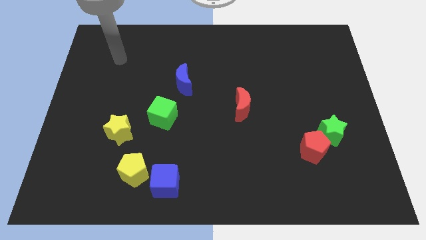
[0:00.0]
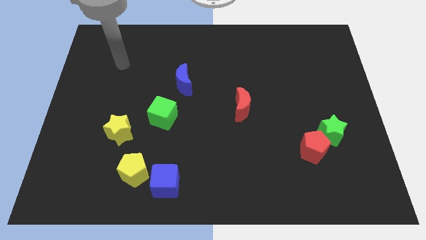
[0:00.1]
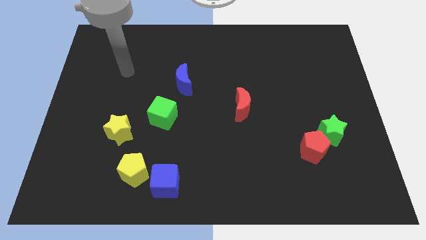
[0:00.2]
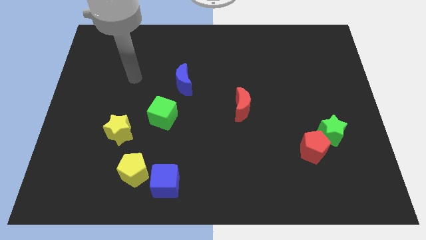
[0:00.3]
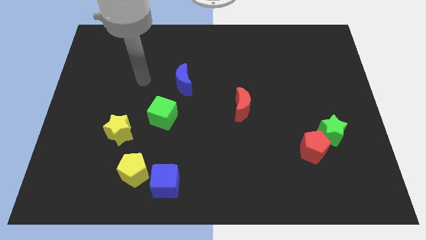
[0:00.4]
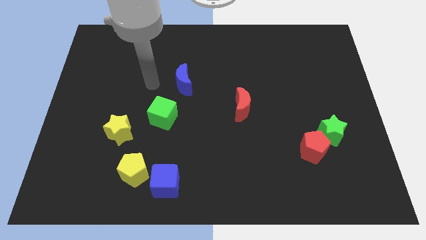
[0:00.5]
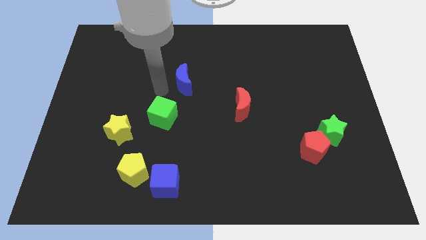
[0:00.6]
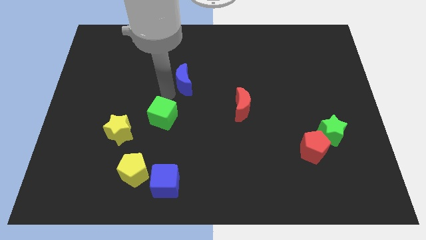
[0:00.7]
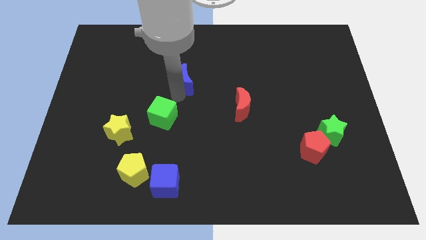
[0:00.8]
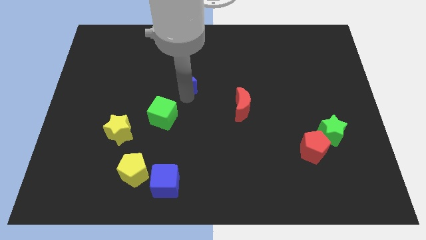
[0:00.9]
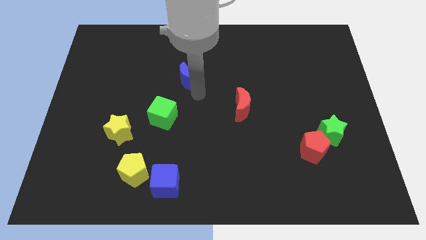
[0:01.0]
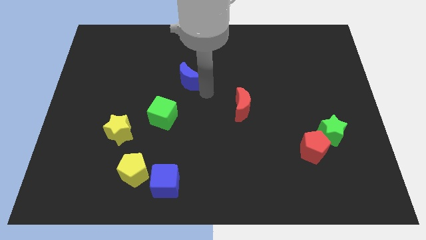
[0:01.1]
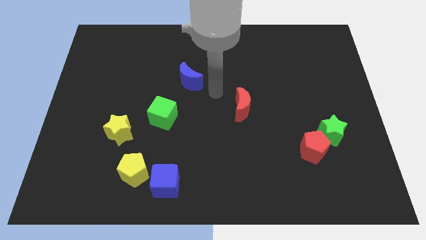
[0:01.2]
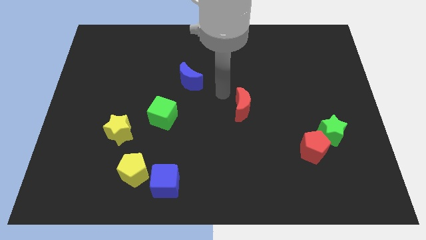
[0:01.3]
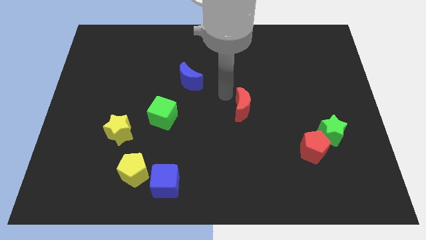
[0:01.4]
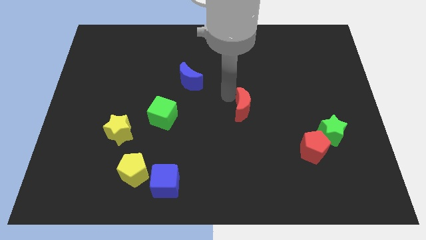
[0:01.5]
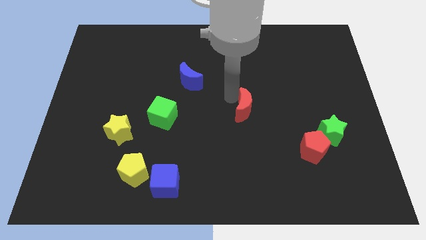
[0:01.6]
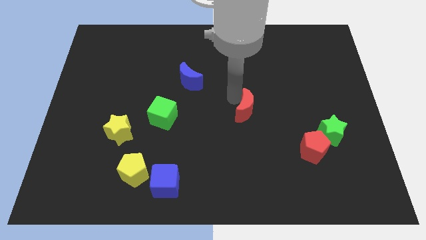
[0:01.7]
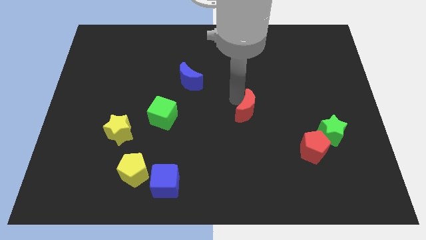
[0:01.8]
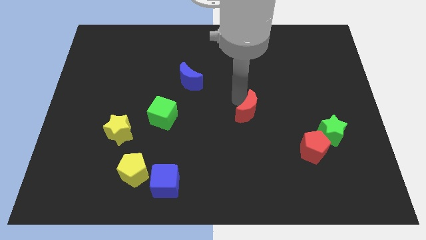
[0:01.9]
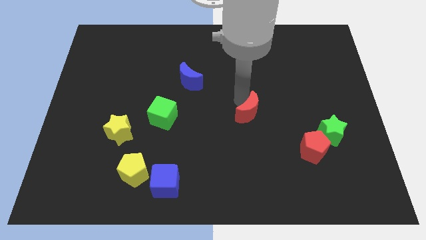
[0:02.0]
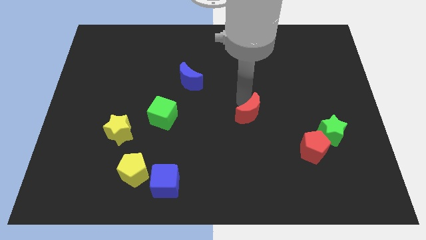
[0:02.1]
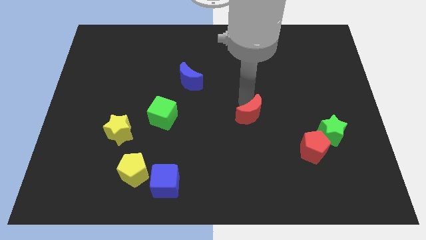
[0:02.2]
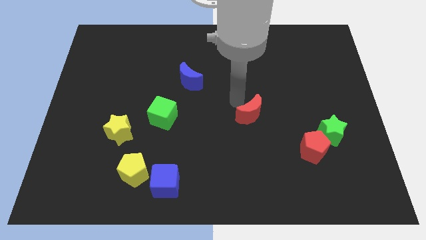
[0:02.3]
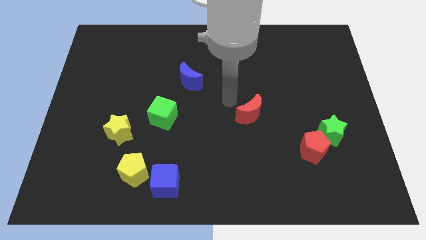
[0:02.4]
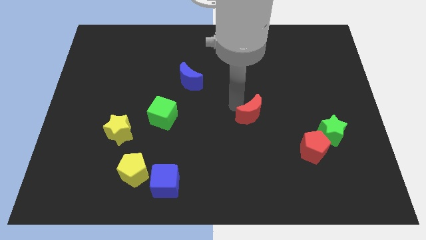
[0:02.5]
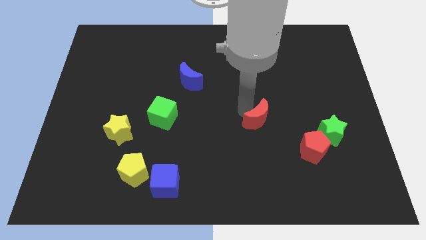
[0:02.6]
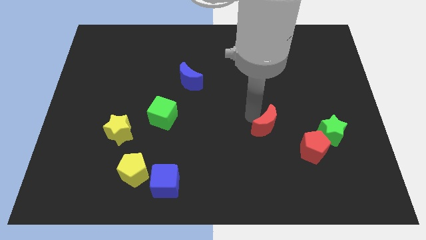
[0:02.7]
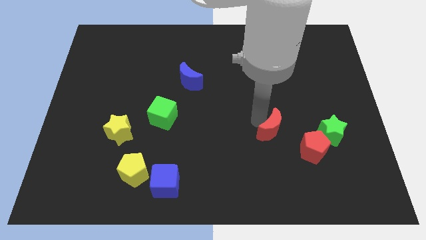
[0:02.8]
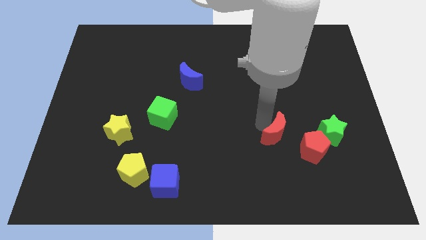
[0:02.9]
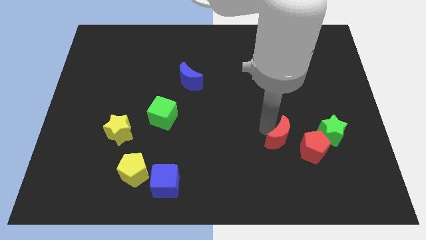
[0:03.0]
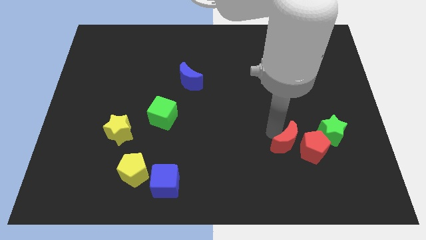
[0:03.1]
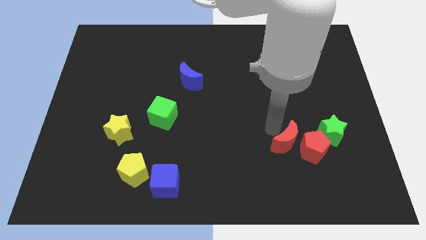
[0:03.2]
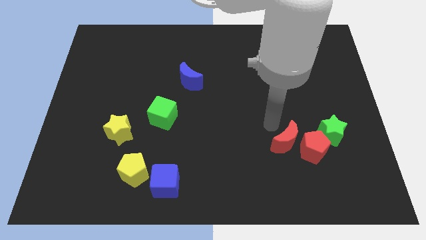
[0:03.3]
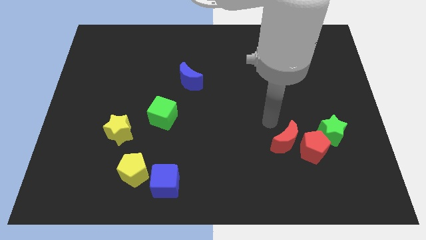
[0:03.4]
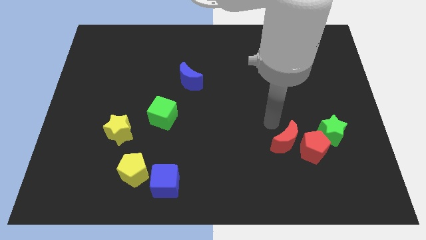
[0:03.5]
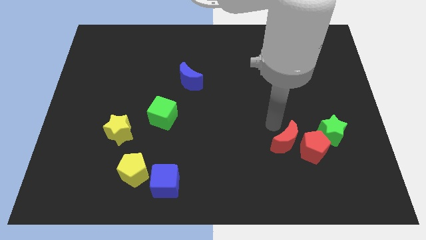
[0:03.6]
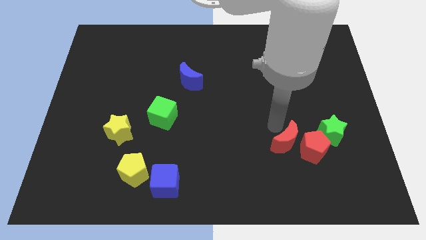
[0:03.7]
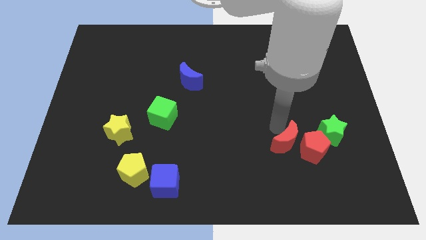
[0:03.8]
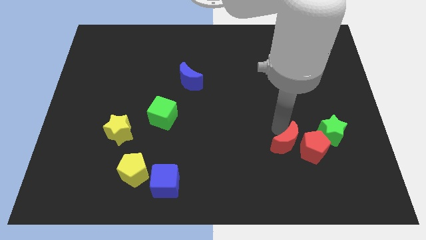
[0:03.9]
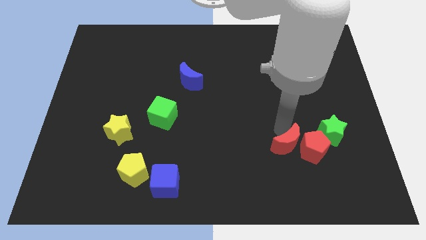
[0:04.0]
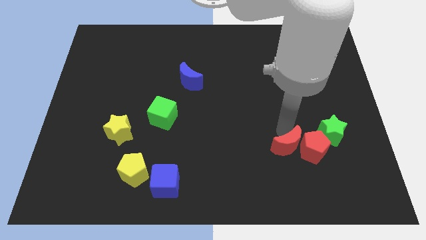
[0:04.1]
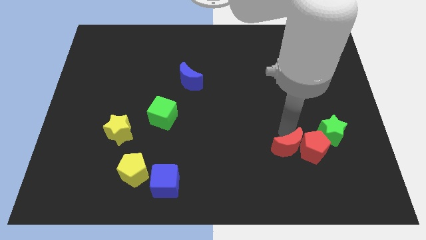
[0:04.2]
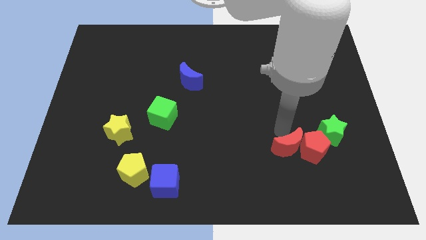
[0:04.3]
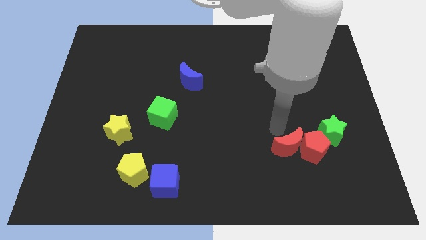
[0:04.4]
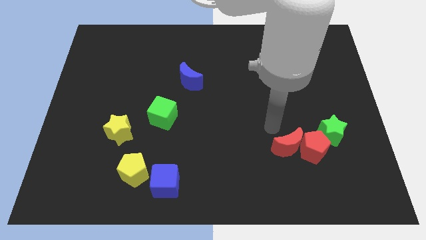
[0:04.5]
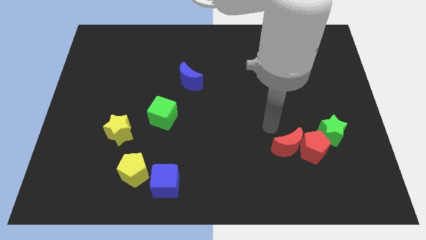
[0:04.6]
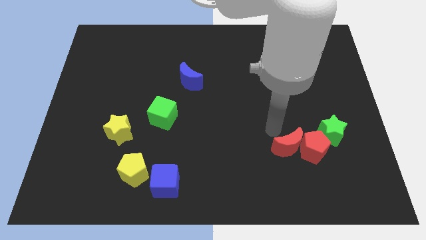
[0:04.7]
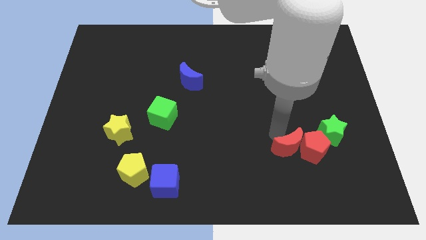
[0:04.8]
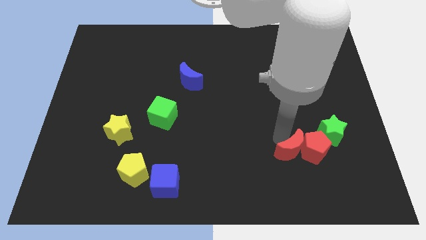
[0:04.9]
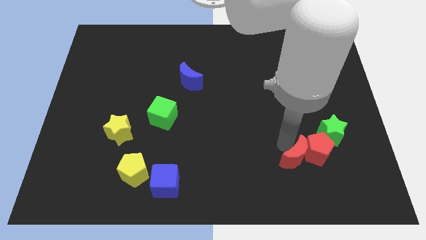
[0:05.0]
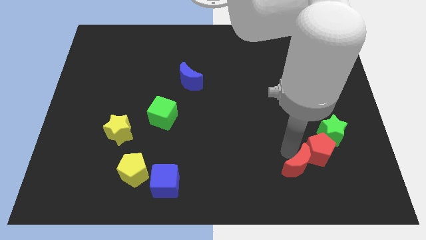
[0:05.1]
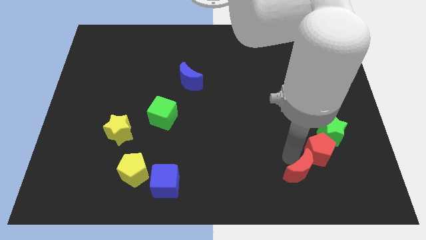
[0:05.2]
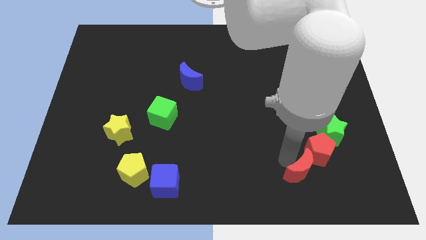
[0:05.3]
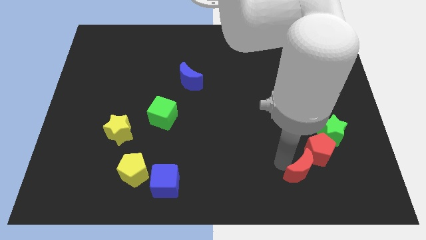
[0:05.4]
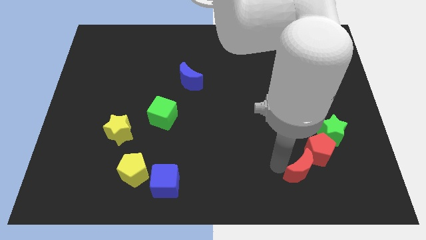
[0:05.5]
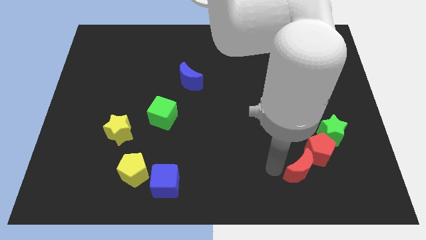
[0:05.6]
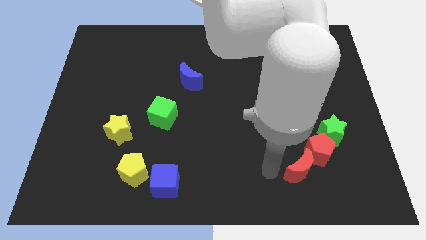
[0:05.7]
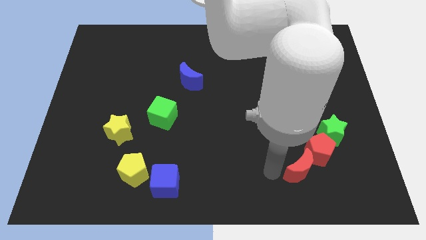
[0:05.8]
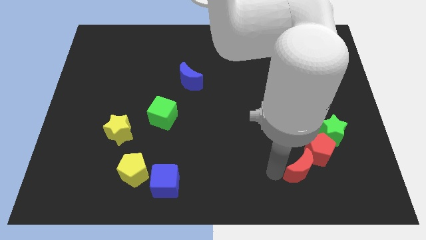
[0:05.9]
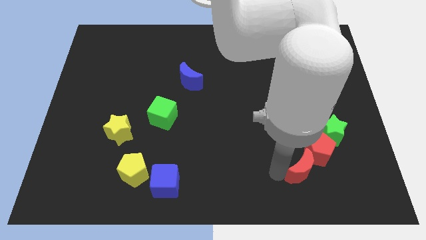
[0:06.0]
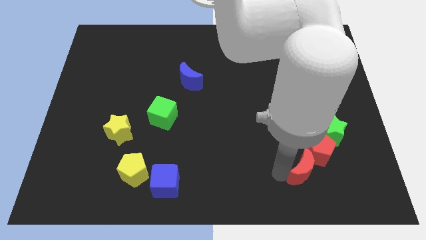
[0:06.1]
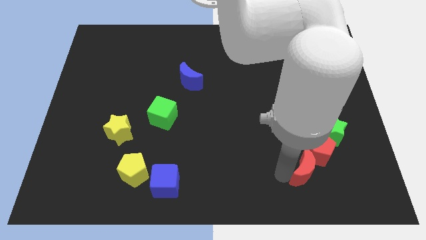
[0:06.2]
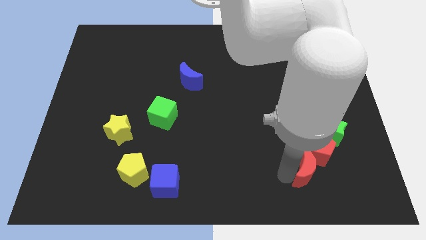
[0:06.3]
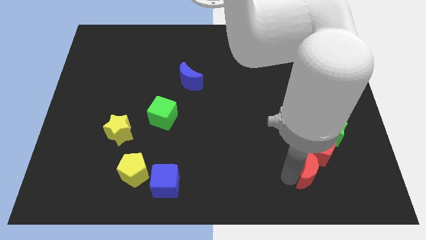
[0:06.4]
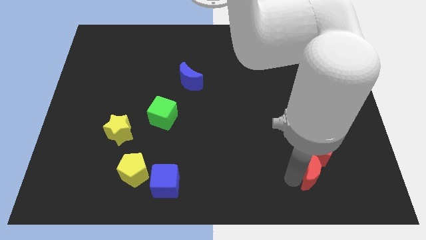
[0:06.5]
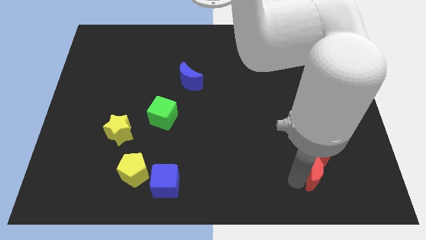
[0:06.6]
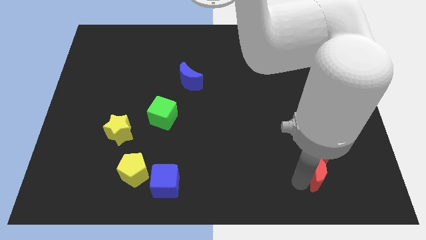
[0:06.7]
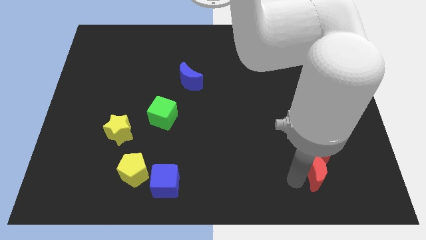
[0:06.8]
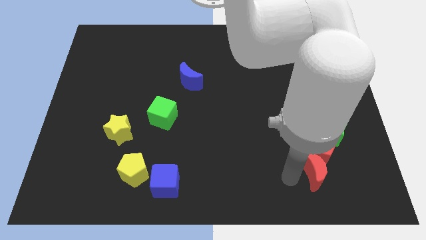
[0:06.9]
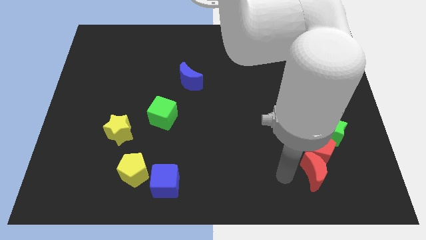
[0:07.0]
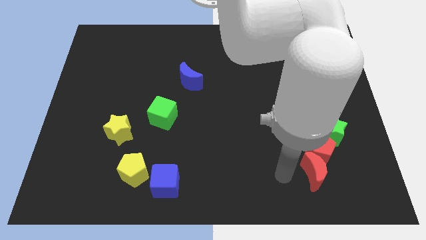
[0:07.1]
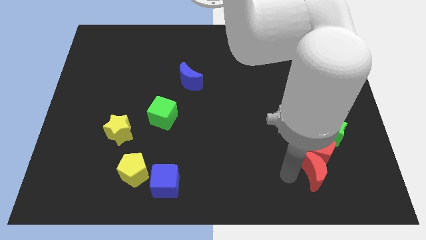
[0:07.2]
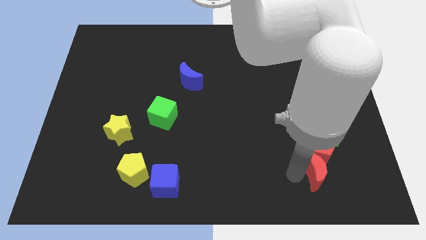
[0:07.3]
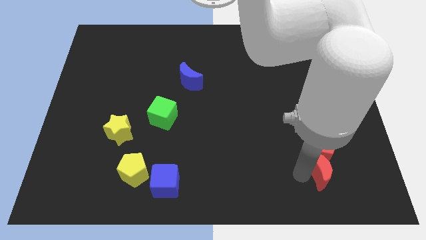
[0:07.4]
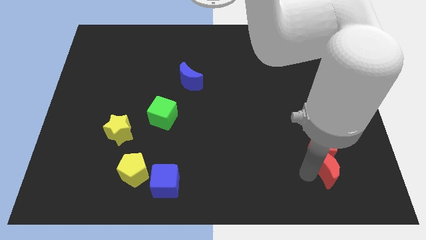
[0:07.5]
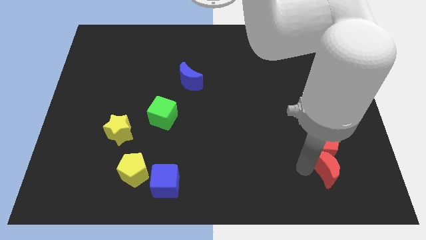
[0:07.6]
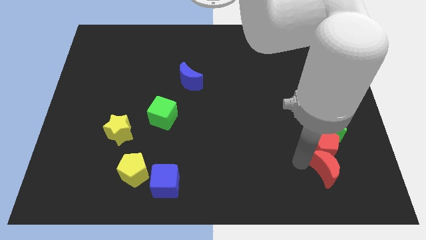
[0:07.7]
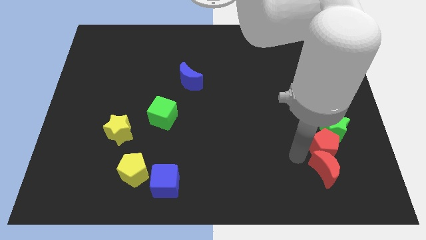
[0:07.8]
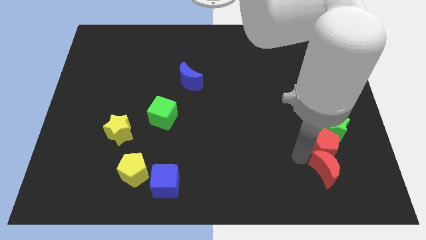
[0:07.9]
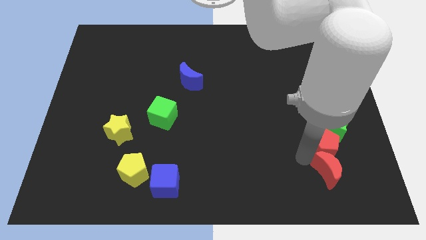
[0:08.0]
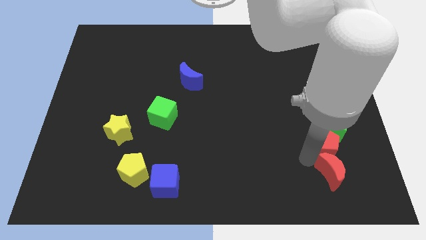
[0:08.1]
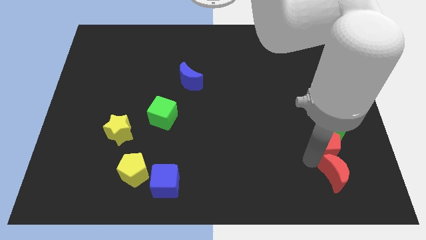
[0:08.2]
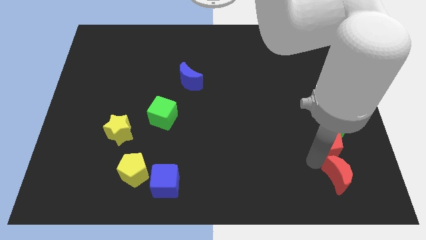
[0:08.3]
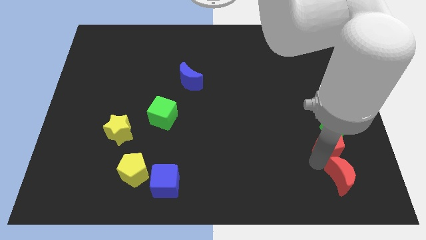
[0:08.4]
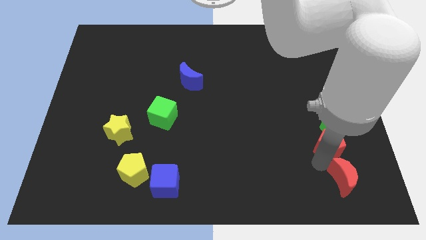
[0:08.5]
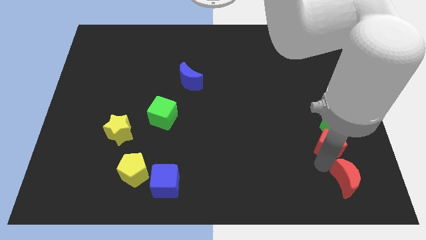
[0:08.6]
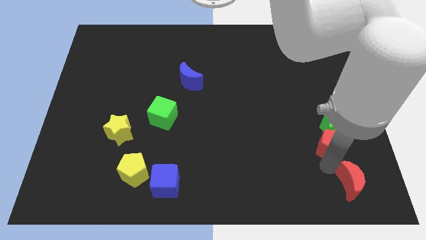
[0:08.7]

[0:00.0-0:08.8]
slide the red moon to the bottom right of the board
